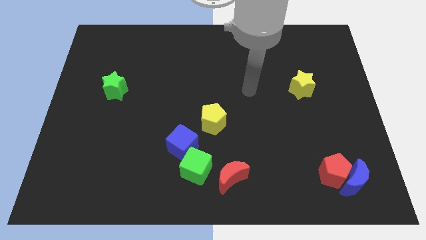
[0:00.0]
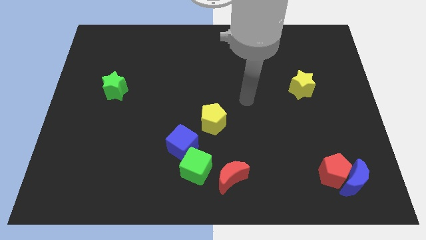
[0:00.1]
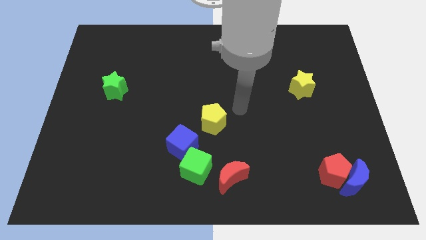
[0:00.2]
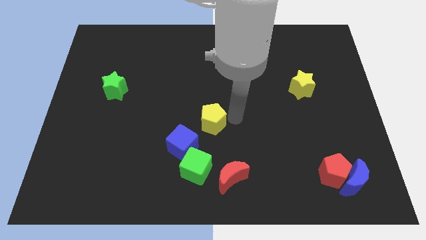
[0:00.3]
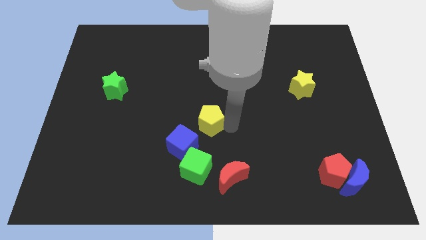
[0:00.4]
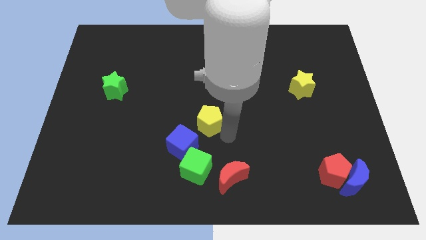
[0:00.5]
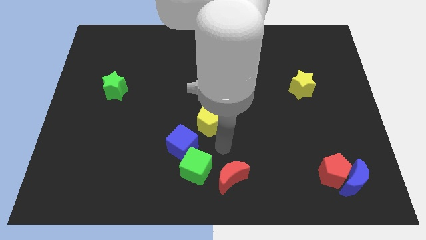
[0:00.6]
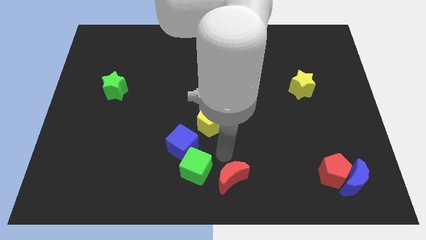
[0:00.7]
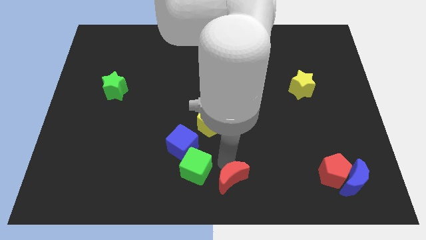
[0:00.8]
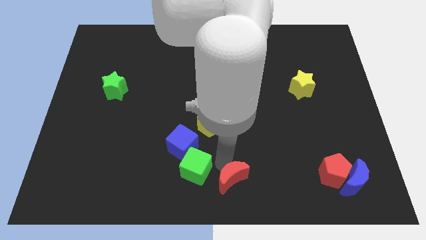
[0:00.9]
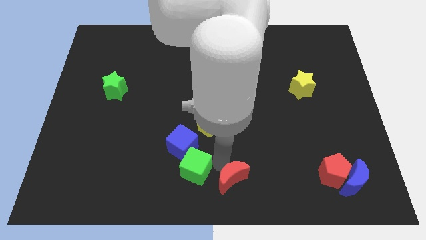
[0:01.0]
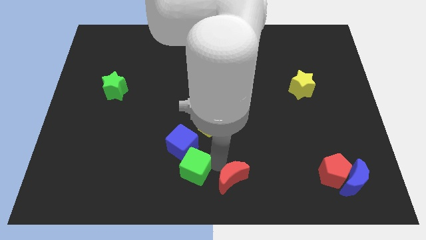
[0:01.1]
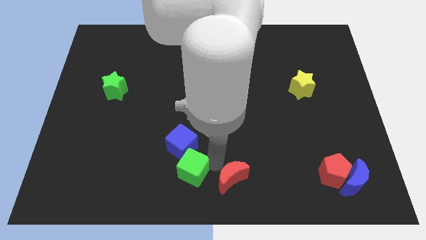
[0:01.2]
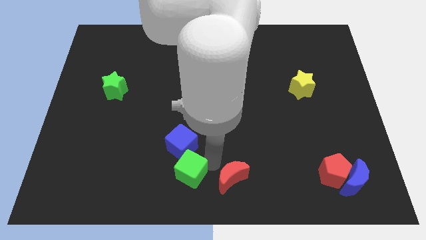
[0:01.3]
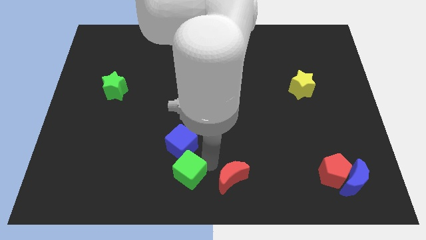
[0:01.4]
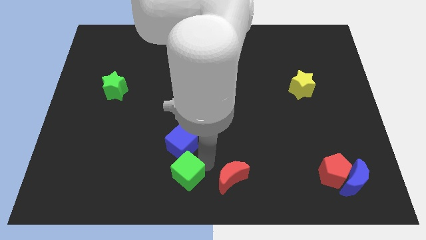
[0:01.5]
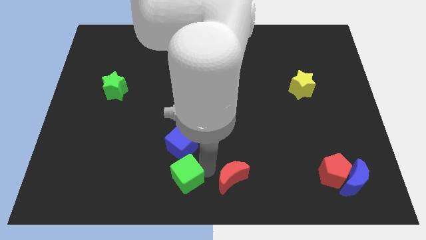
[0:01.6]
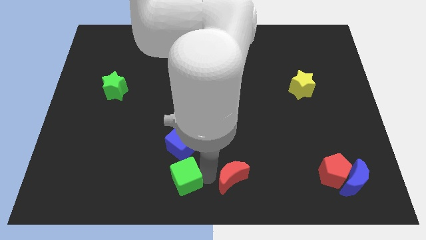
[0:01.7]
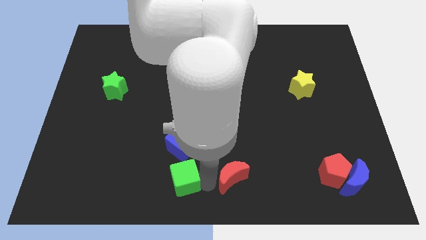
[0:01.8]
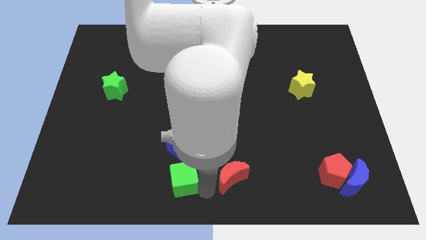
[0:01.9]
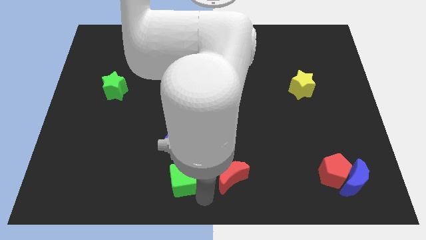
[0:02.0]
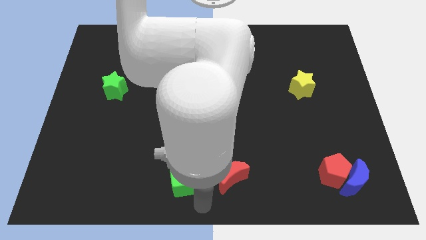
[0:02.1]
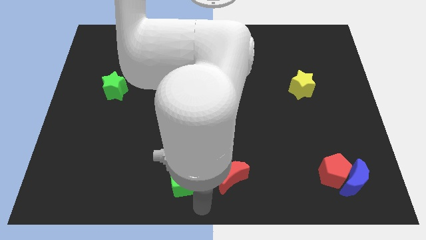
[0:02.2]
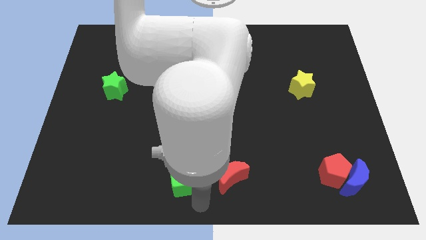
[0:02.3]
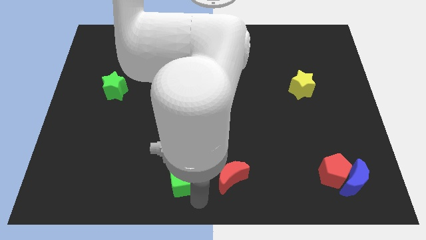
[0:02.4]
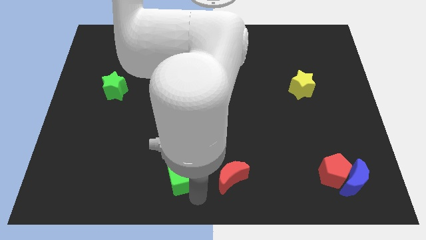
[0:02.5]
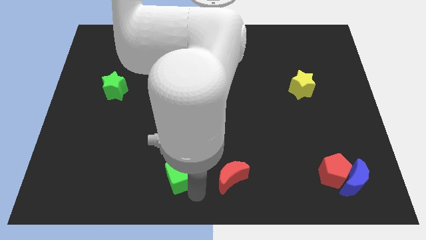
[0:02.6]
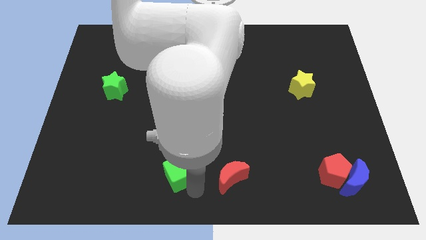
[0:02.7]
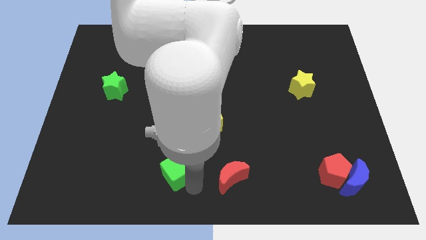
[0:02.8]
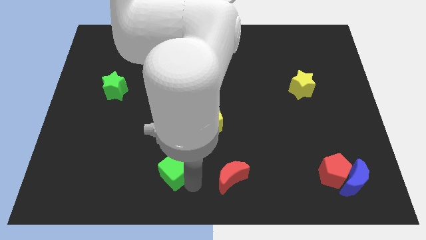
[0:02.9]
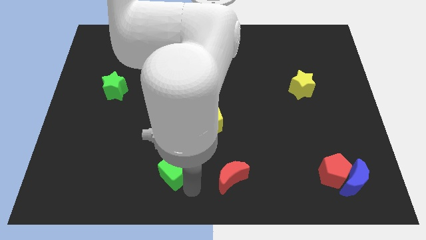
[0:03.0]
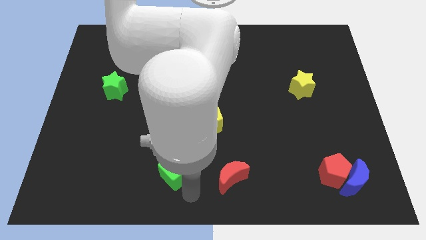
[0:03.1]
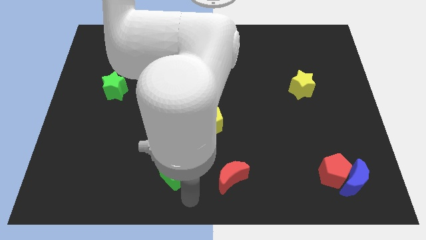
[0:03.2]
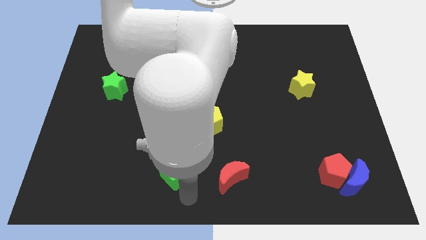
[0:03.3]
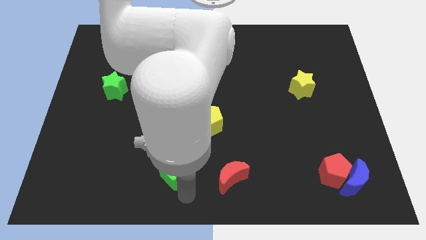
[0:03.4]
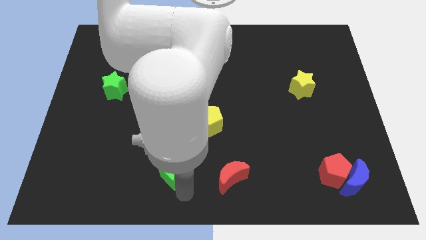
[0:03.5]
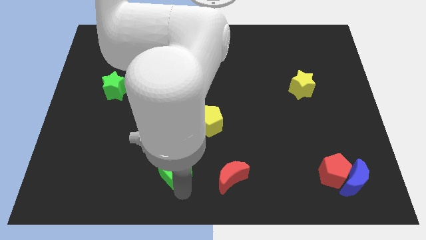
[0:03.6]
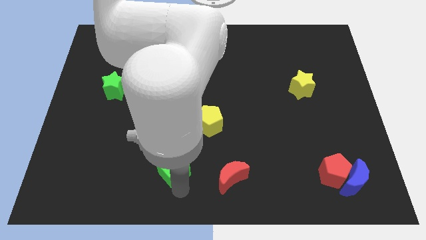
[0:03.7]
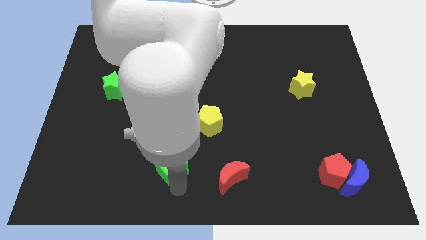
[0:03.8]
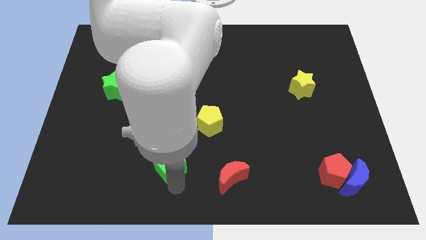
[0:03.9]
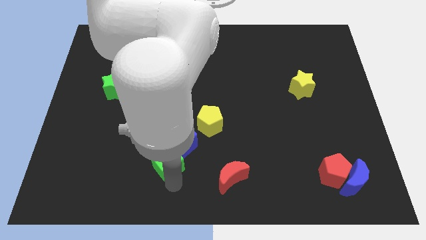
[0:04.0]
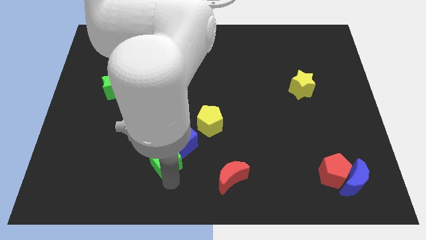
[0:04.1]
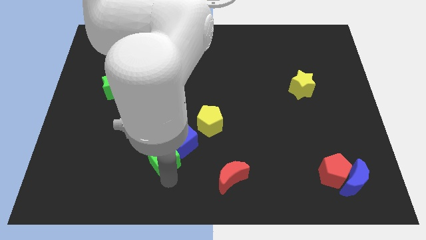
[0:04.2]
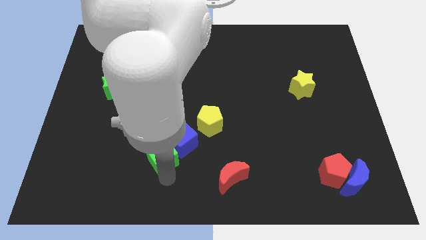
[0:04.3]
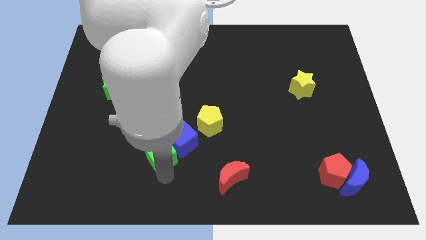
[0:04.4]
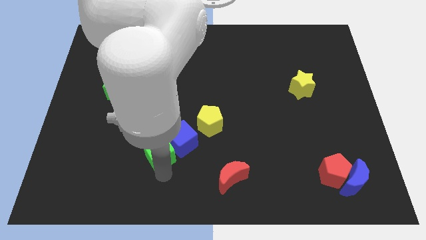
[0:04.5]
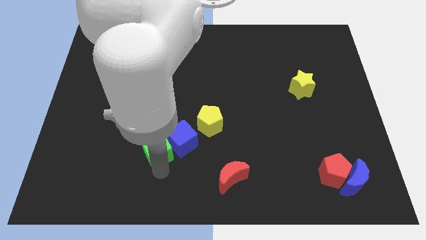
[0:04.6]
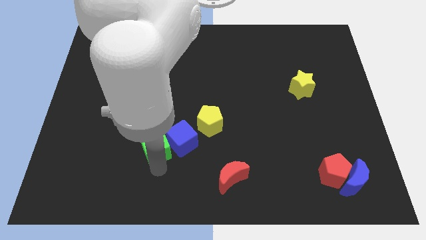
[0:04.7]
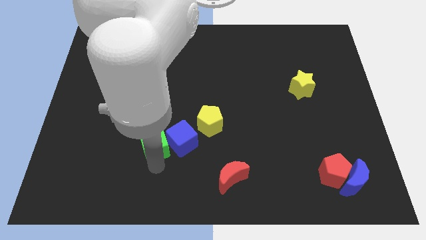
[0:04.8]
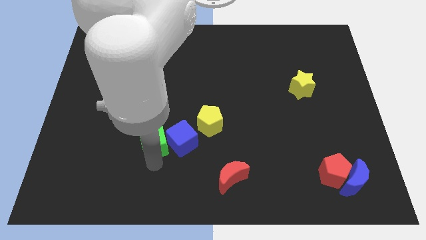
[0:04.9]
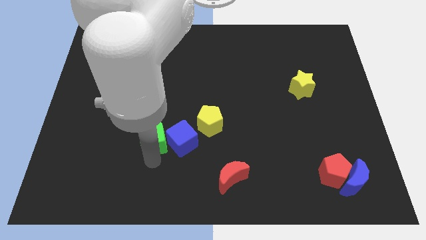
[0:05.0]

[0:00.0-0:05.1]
slide the green cube to the left side of the yellow pentagon

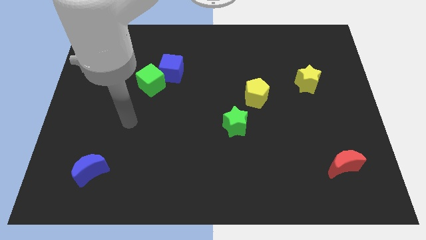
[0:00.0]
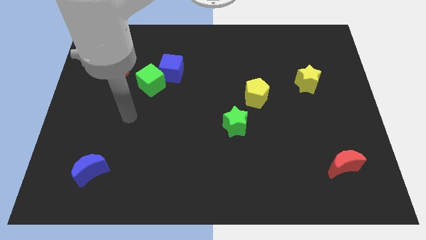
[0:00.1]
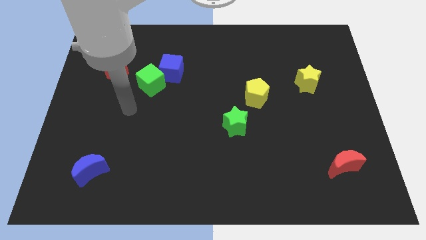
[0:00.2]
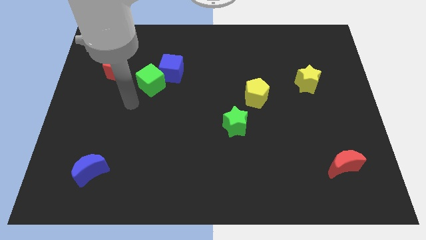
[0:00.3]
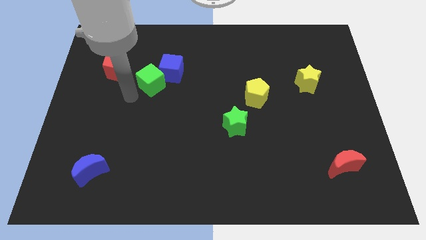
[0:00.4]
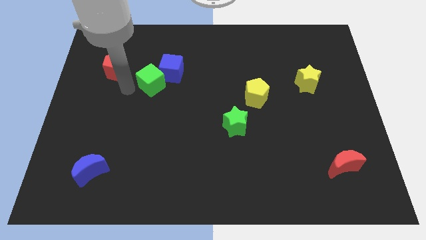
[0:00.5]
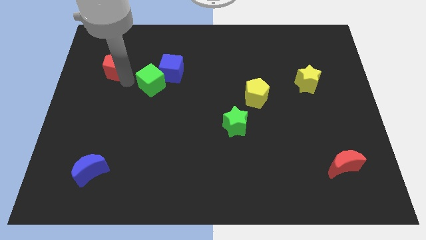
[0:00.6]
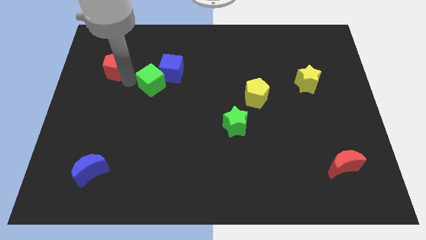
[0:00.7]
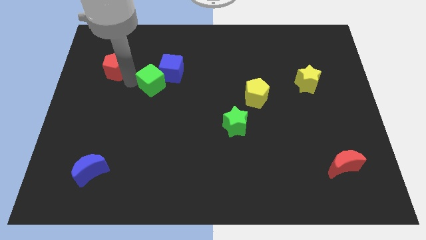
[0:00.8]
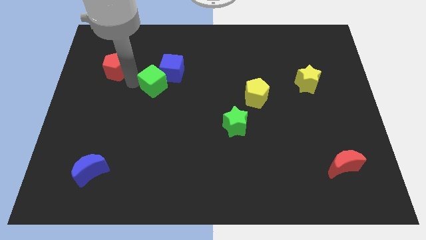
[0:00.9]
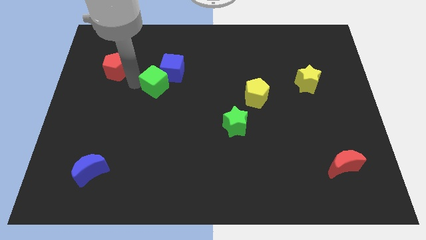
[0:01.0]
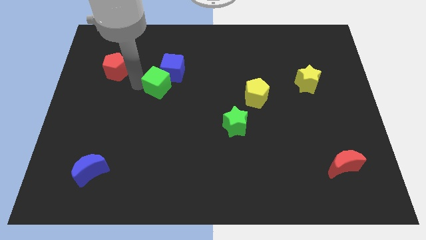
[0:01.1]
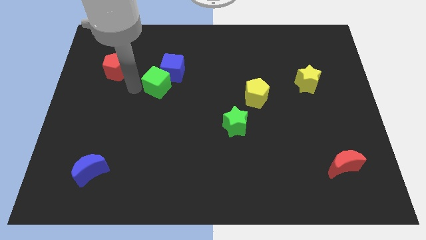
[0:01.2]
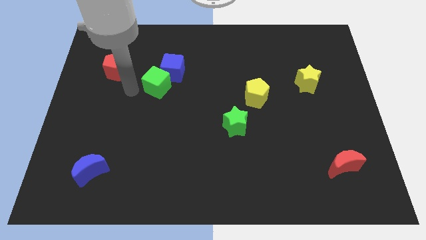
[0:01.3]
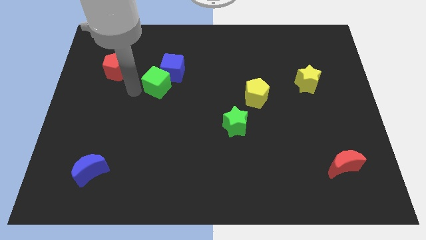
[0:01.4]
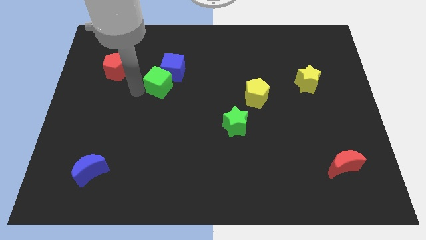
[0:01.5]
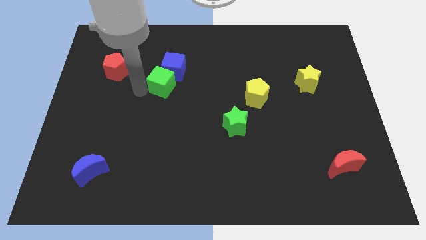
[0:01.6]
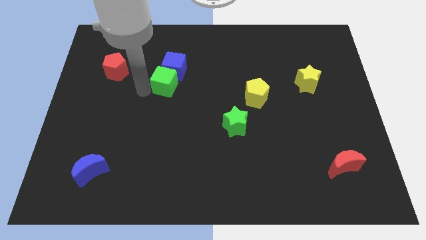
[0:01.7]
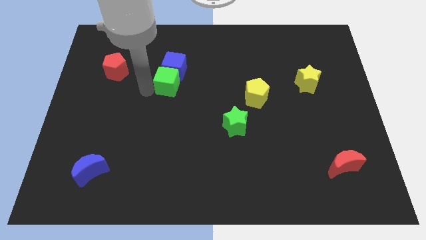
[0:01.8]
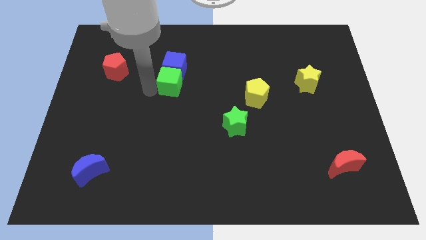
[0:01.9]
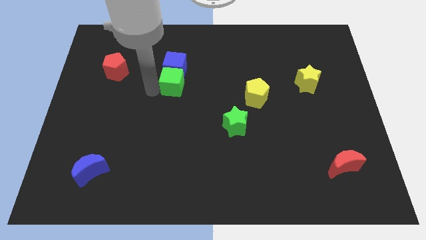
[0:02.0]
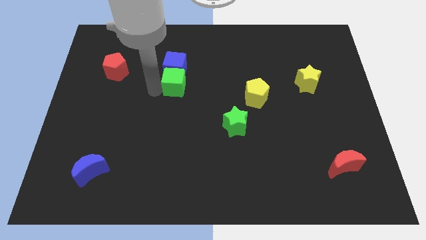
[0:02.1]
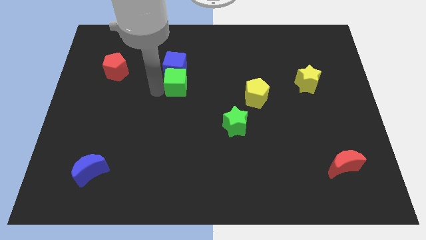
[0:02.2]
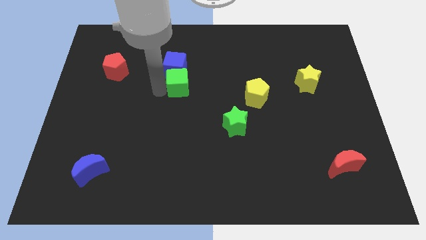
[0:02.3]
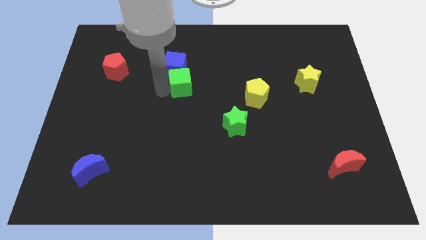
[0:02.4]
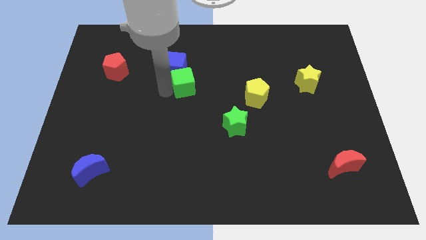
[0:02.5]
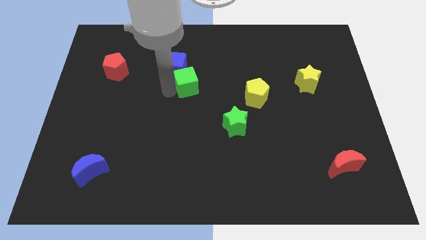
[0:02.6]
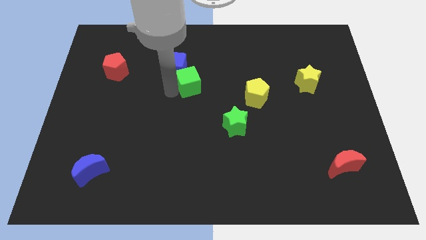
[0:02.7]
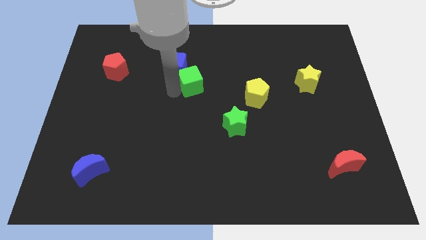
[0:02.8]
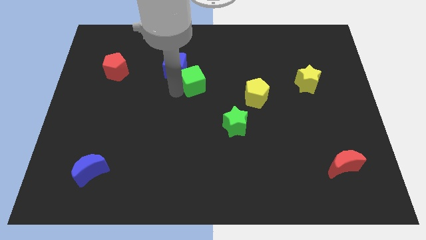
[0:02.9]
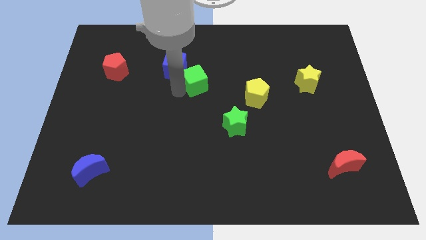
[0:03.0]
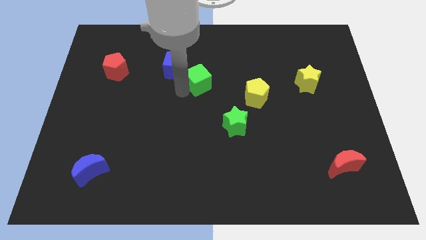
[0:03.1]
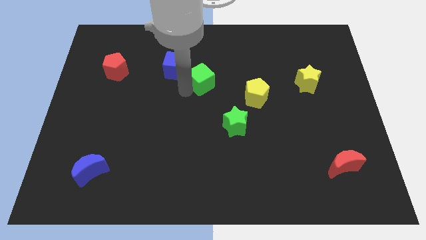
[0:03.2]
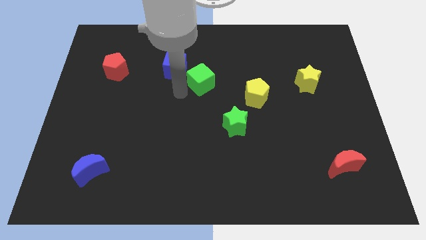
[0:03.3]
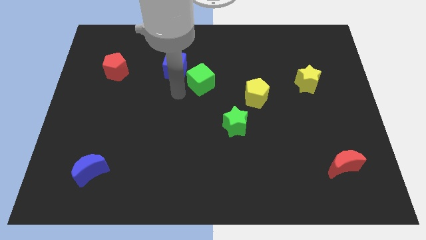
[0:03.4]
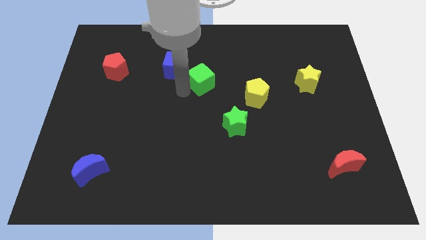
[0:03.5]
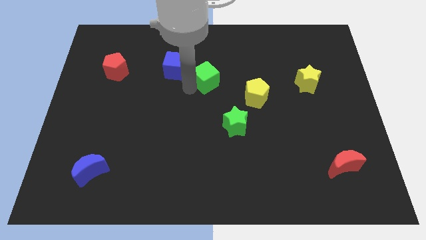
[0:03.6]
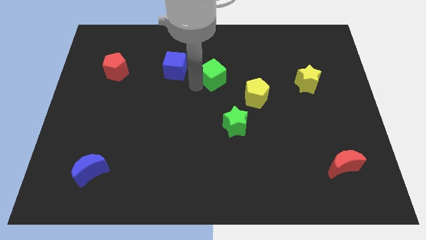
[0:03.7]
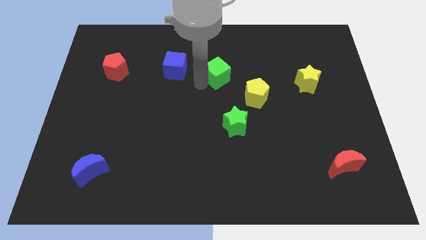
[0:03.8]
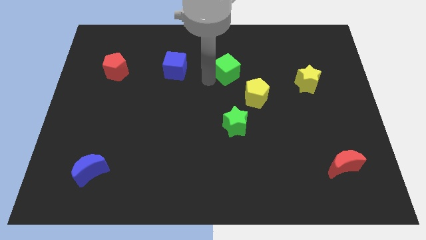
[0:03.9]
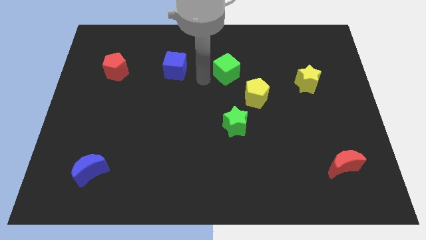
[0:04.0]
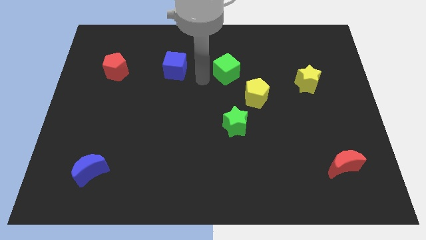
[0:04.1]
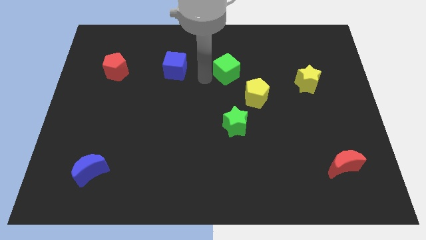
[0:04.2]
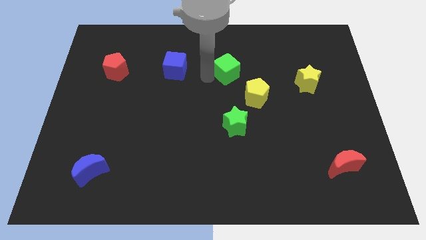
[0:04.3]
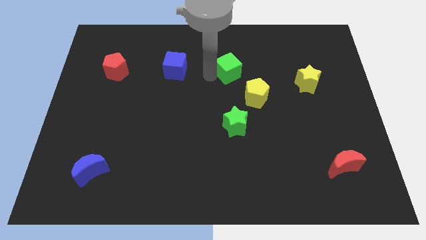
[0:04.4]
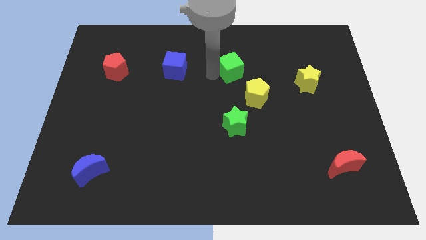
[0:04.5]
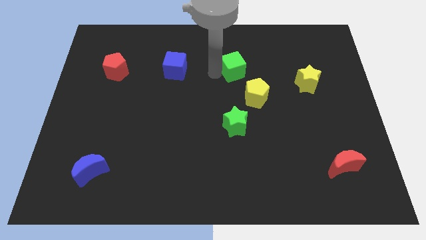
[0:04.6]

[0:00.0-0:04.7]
move the green cube to the top of the yellow pentagon
